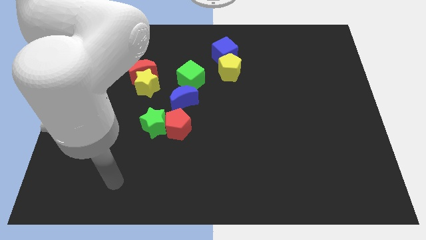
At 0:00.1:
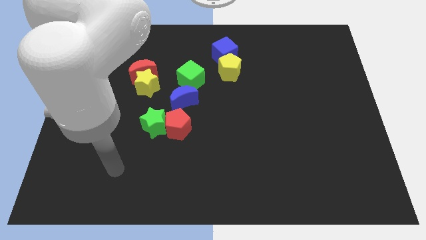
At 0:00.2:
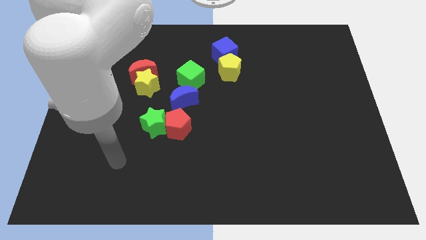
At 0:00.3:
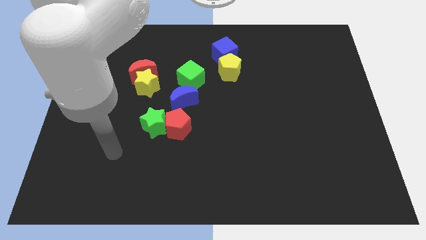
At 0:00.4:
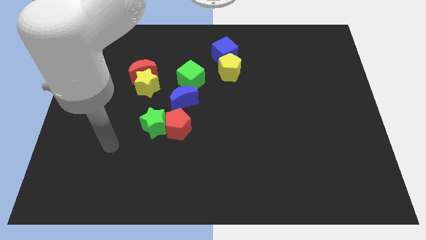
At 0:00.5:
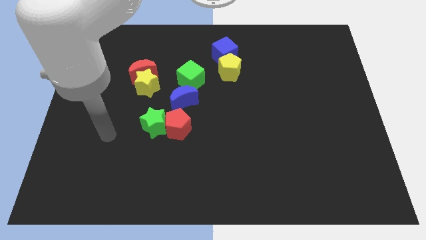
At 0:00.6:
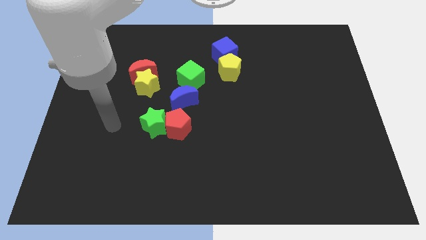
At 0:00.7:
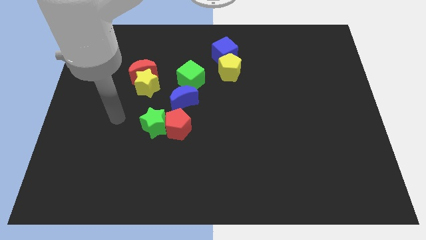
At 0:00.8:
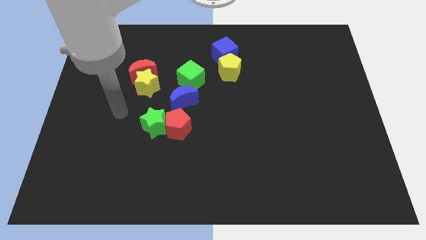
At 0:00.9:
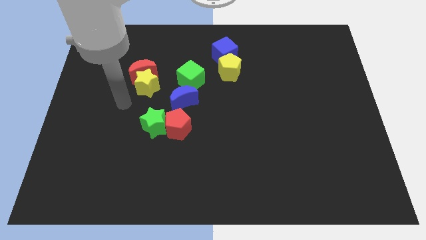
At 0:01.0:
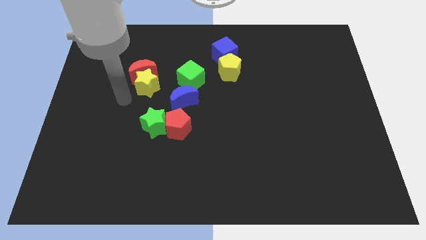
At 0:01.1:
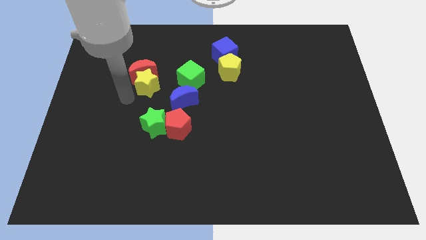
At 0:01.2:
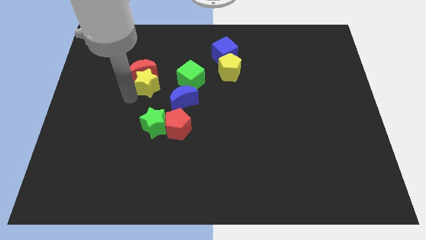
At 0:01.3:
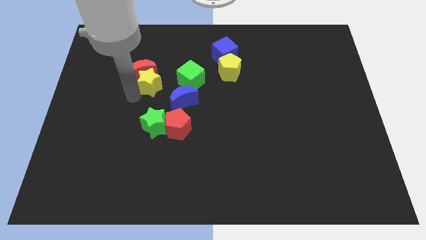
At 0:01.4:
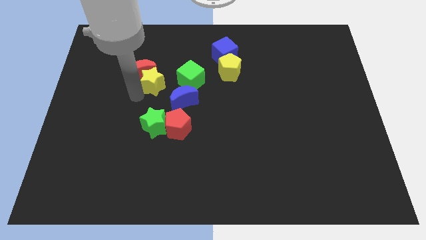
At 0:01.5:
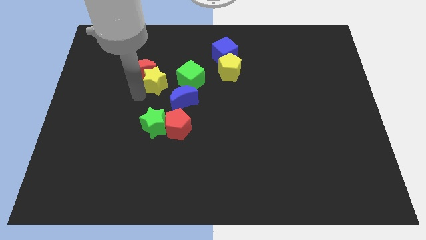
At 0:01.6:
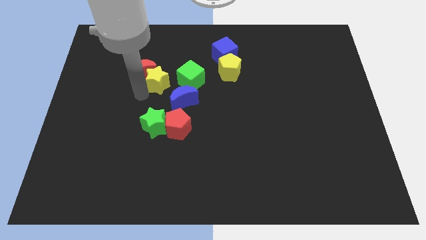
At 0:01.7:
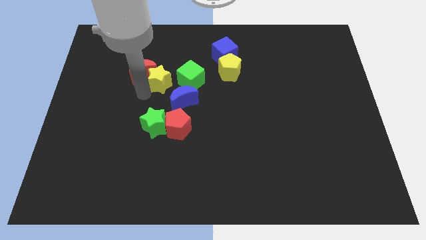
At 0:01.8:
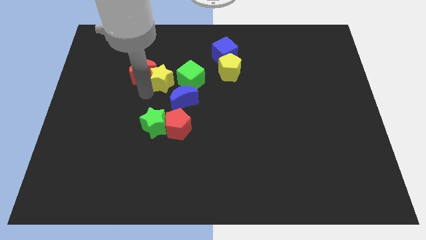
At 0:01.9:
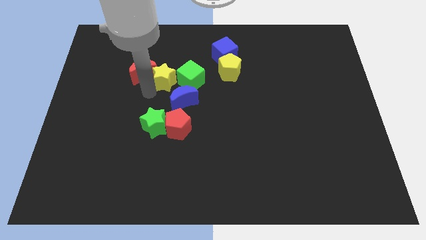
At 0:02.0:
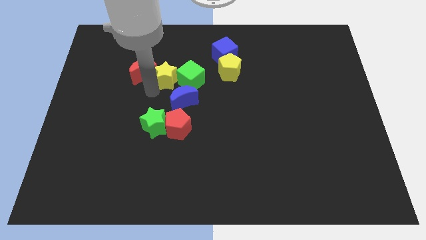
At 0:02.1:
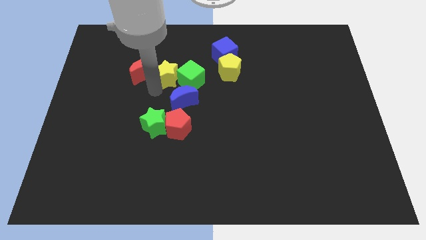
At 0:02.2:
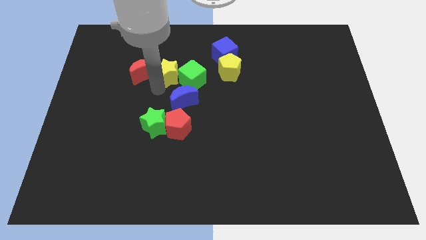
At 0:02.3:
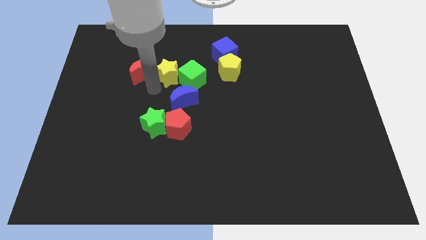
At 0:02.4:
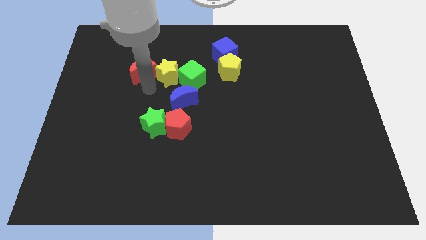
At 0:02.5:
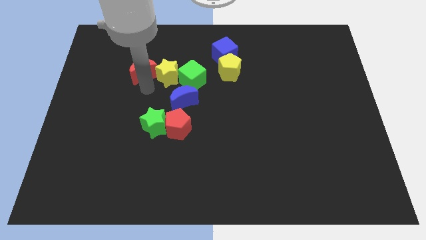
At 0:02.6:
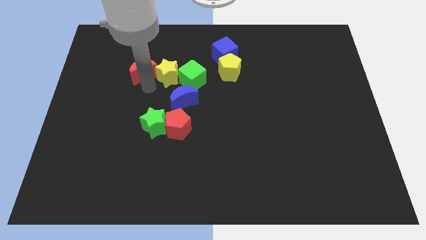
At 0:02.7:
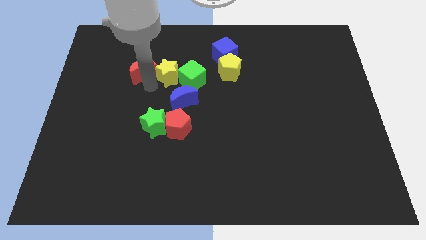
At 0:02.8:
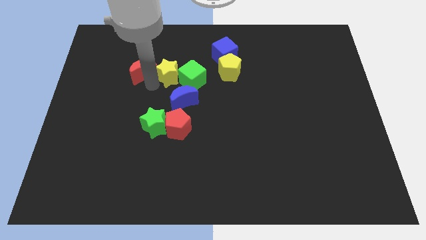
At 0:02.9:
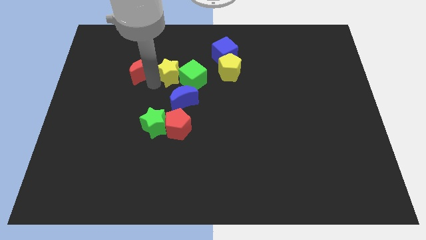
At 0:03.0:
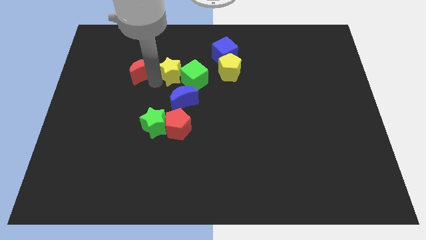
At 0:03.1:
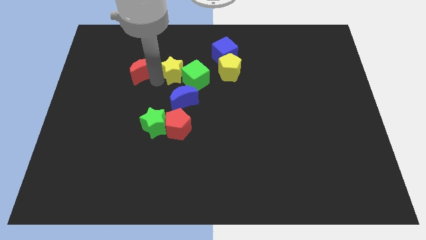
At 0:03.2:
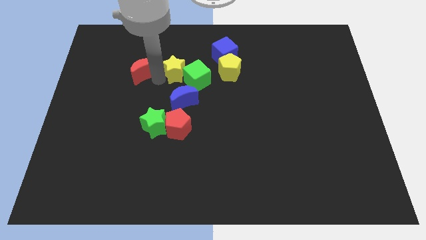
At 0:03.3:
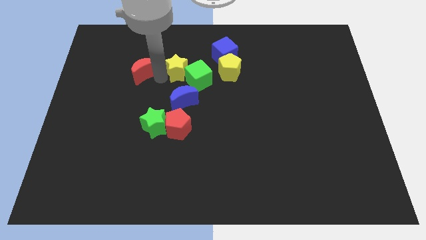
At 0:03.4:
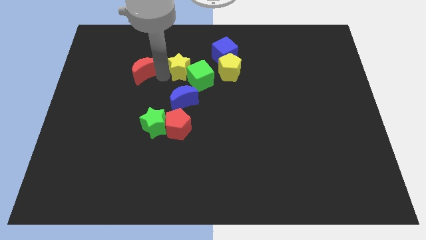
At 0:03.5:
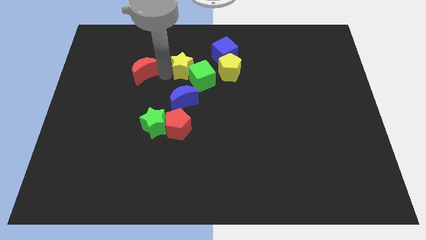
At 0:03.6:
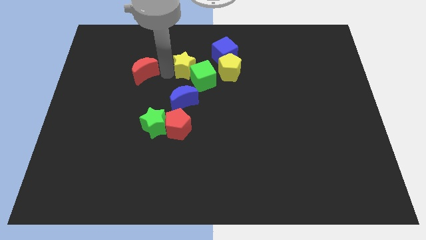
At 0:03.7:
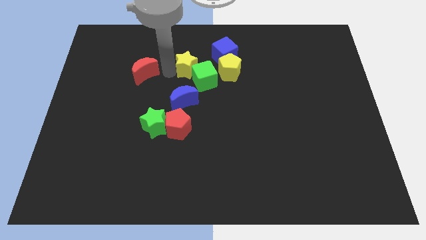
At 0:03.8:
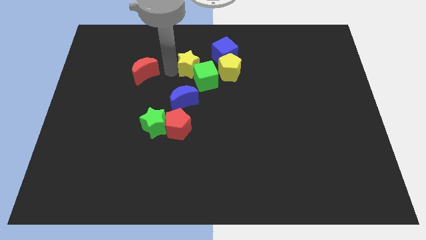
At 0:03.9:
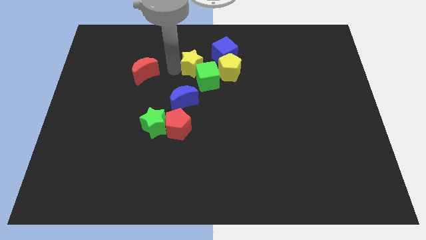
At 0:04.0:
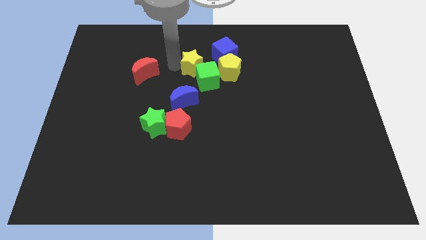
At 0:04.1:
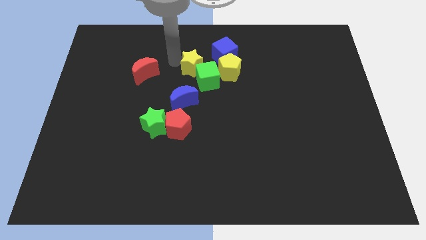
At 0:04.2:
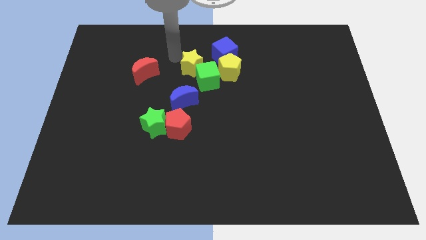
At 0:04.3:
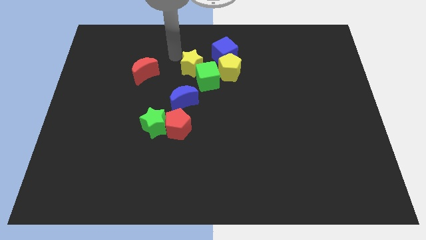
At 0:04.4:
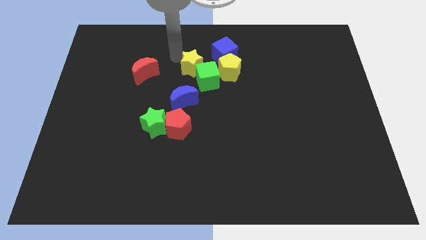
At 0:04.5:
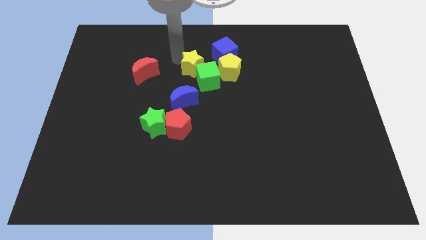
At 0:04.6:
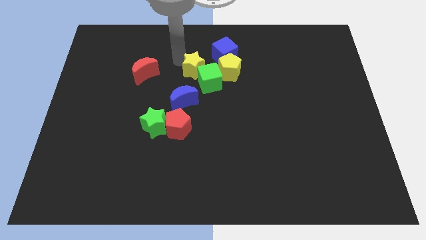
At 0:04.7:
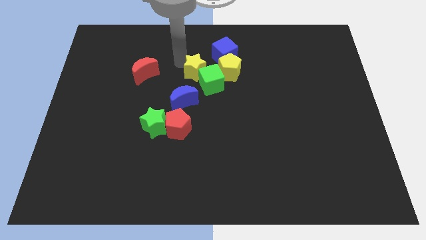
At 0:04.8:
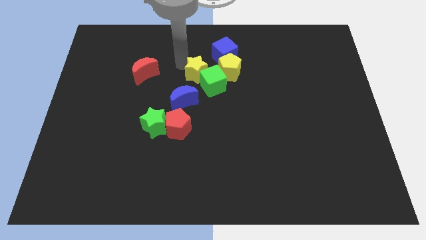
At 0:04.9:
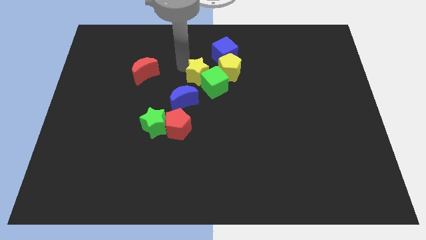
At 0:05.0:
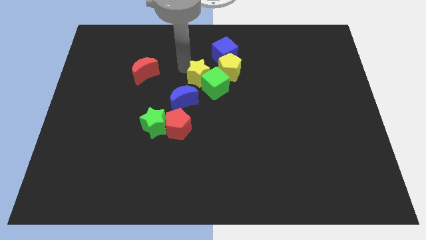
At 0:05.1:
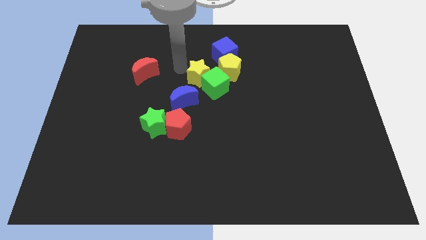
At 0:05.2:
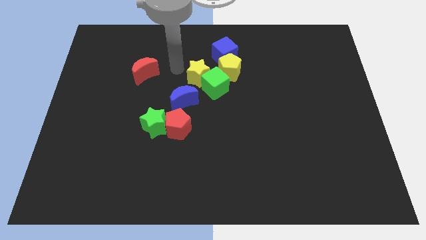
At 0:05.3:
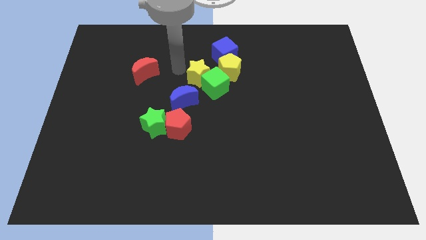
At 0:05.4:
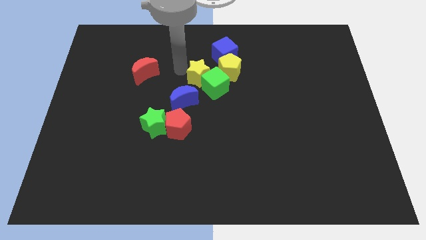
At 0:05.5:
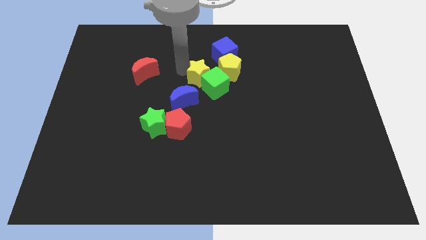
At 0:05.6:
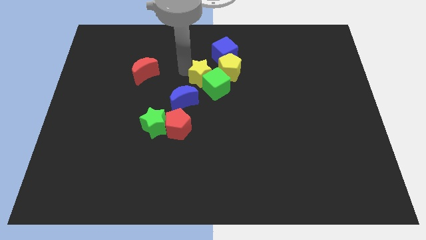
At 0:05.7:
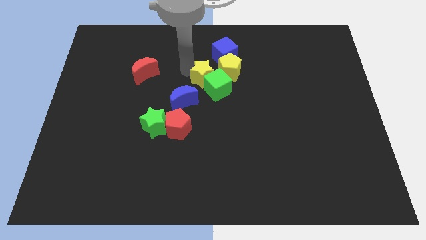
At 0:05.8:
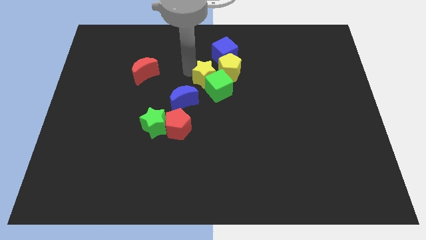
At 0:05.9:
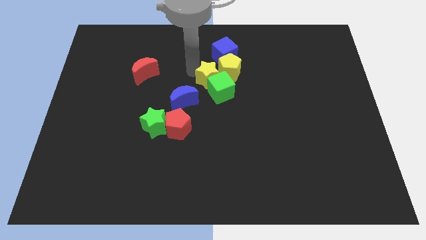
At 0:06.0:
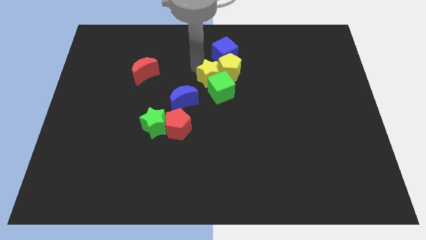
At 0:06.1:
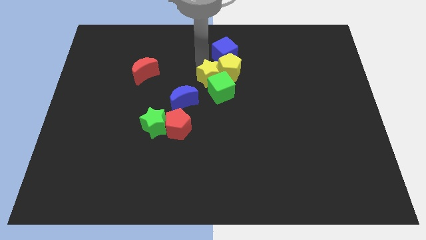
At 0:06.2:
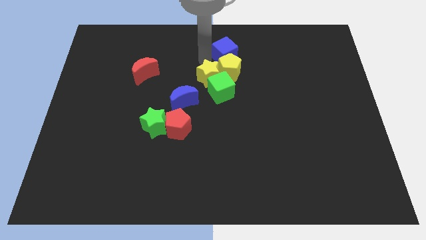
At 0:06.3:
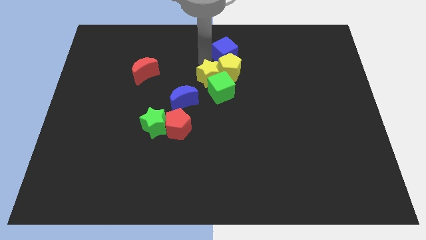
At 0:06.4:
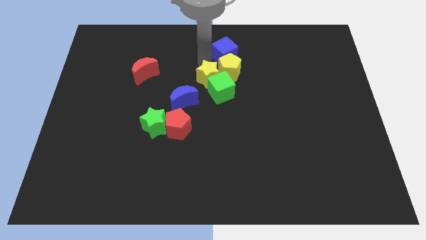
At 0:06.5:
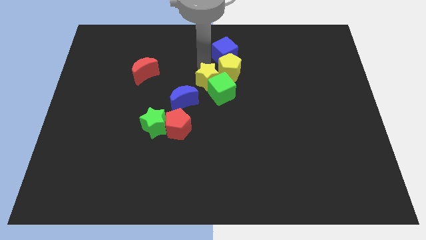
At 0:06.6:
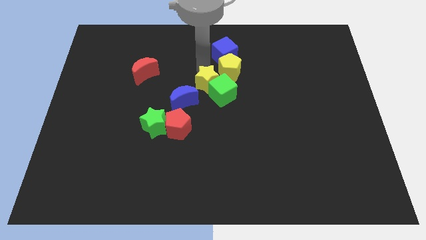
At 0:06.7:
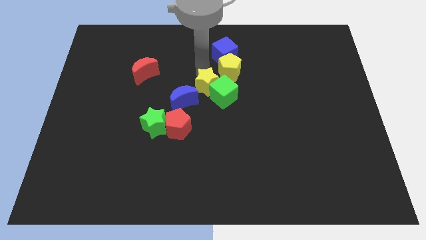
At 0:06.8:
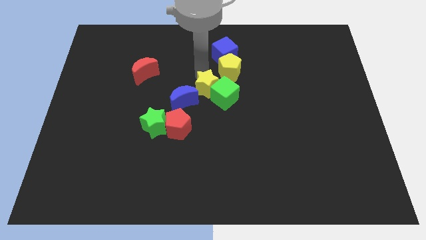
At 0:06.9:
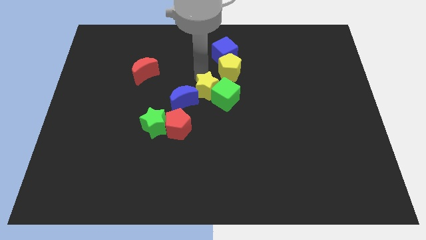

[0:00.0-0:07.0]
slightly slide the yellow star diagonally downwards and right

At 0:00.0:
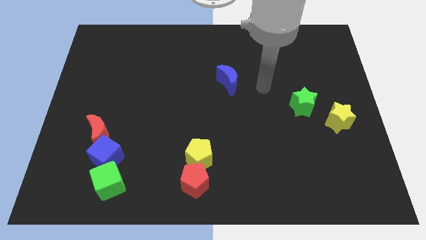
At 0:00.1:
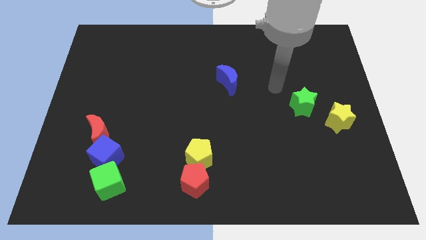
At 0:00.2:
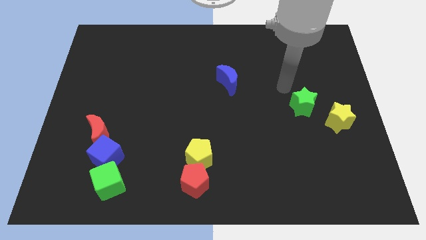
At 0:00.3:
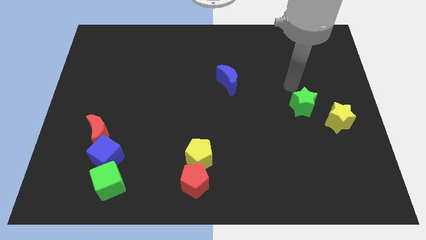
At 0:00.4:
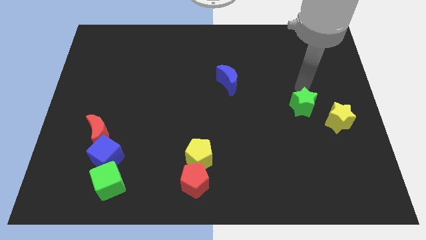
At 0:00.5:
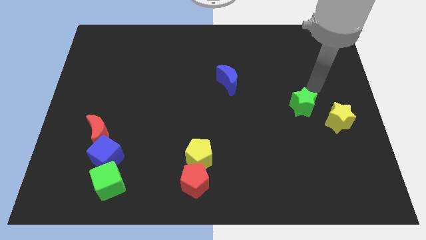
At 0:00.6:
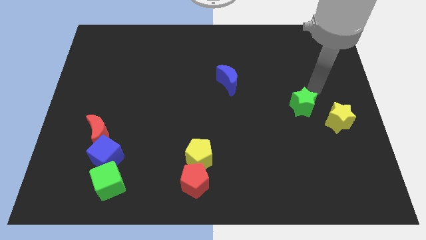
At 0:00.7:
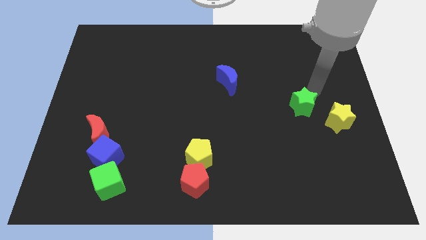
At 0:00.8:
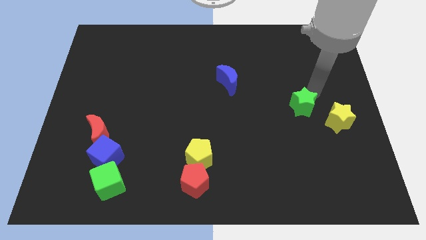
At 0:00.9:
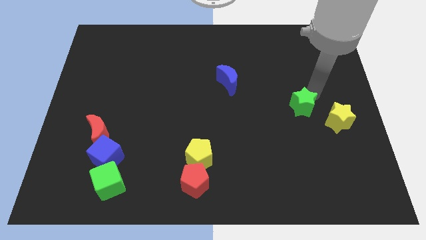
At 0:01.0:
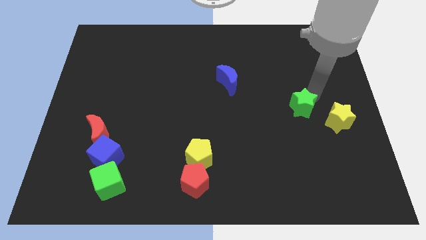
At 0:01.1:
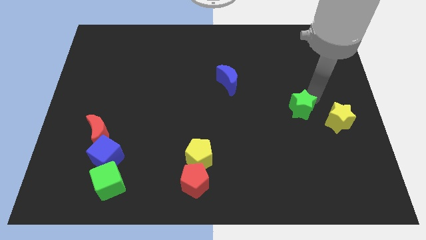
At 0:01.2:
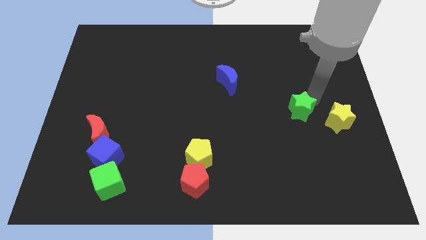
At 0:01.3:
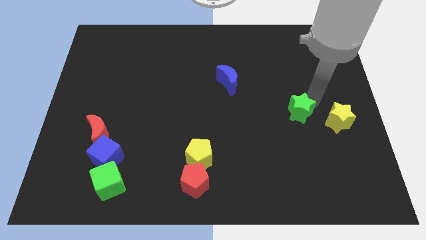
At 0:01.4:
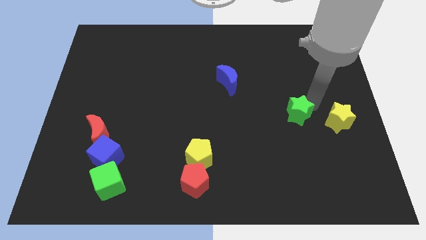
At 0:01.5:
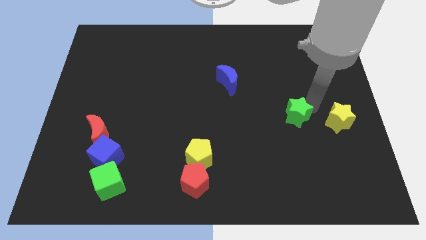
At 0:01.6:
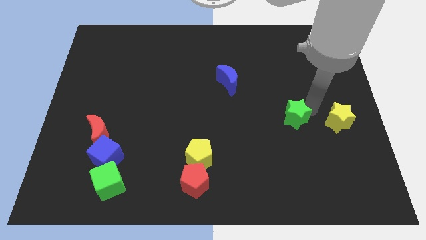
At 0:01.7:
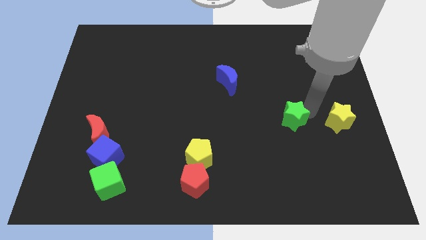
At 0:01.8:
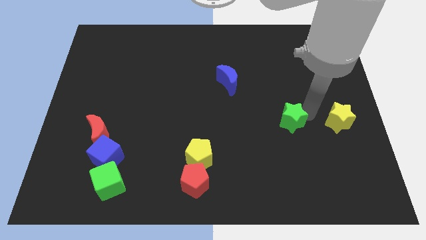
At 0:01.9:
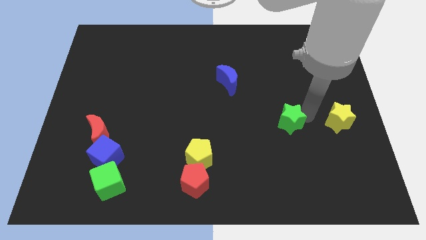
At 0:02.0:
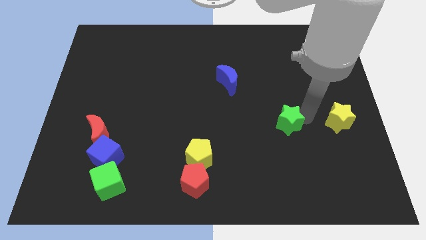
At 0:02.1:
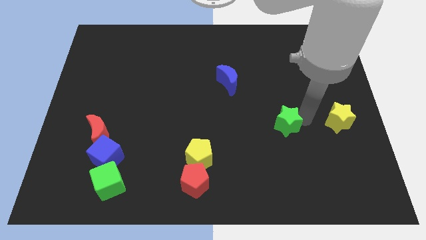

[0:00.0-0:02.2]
move the green star a little bit down and left
